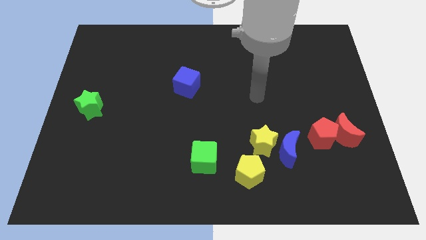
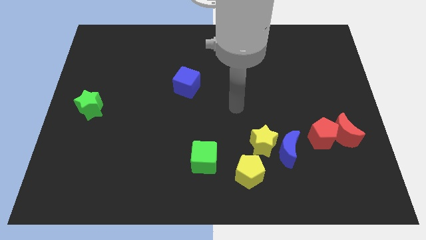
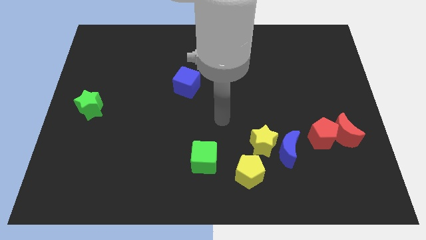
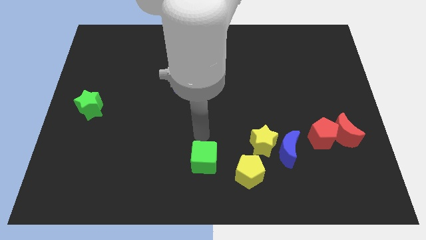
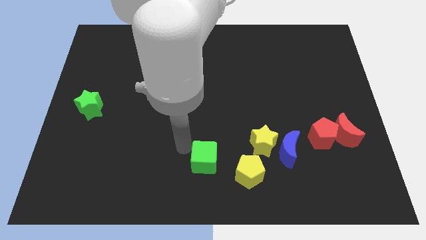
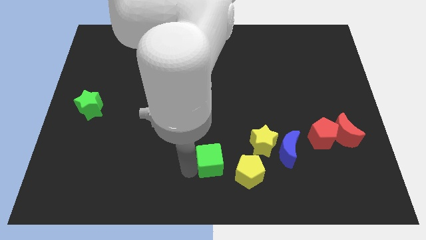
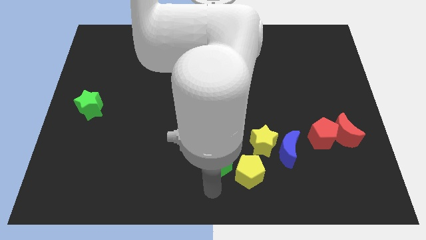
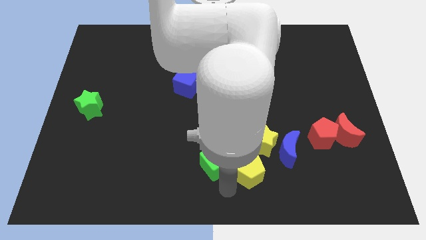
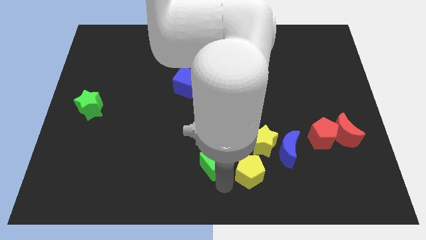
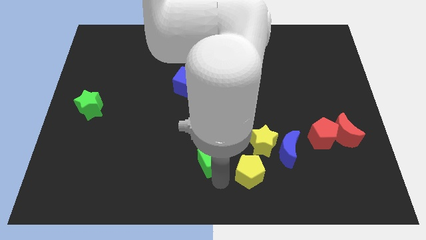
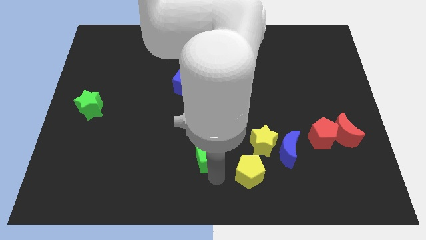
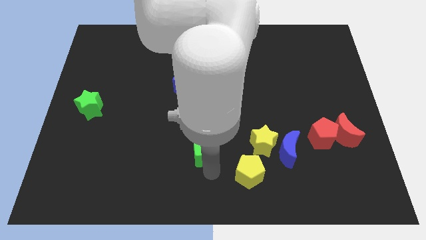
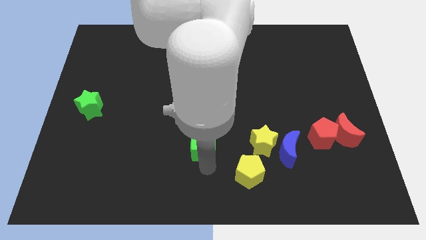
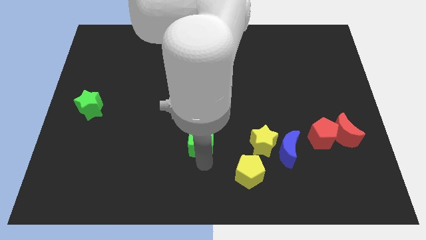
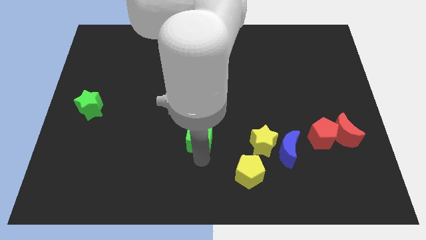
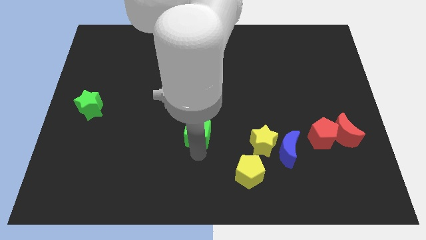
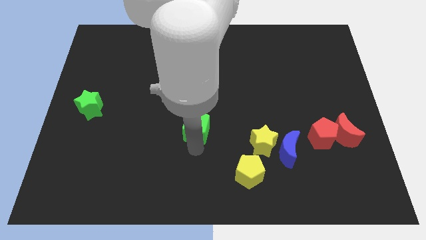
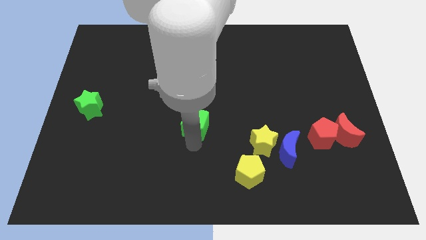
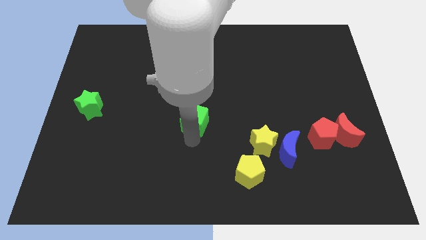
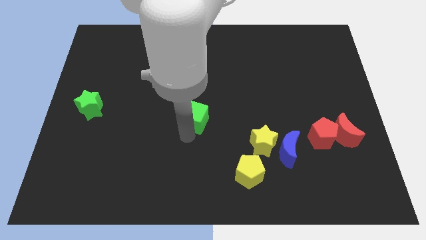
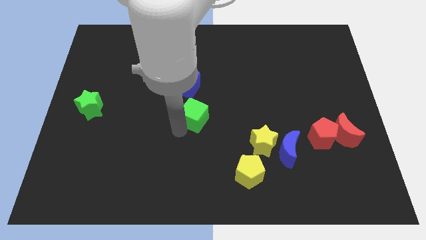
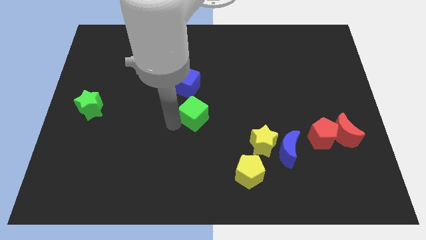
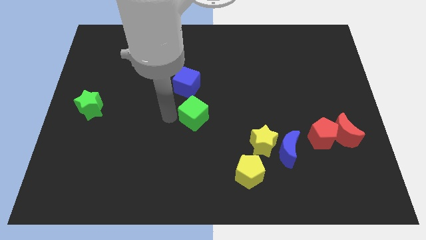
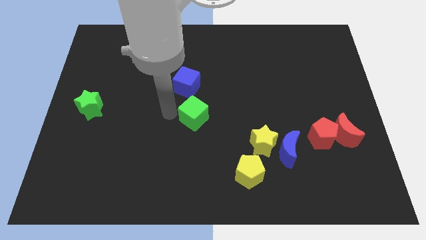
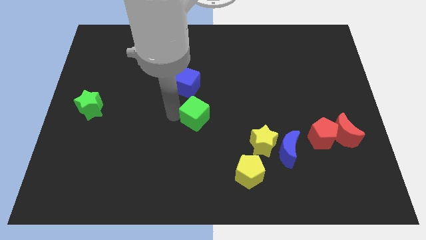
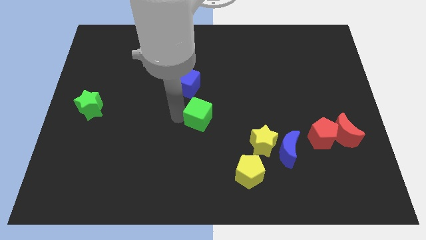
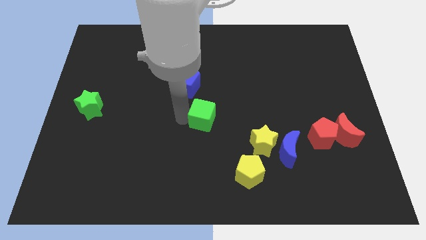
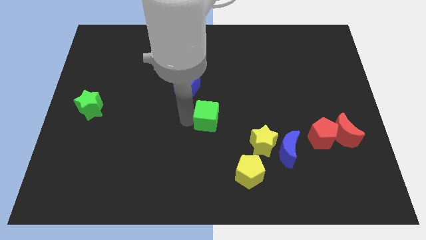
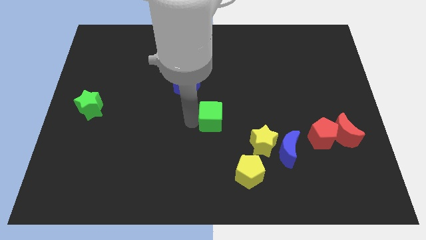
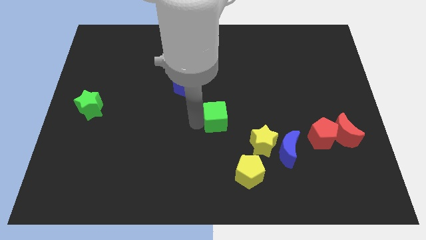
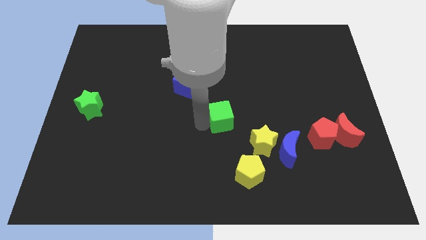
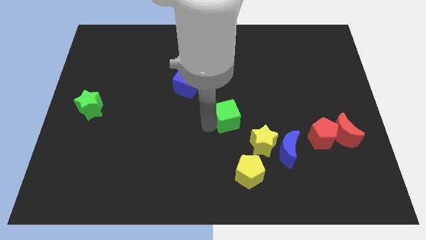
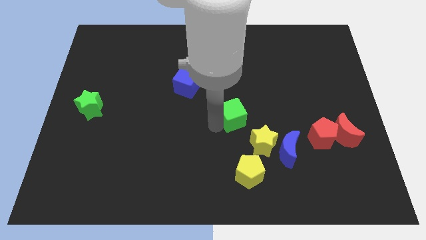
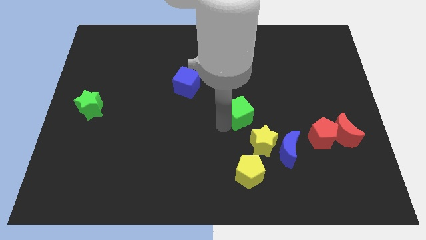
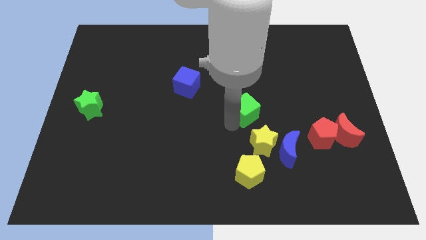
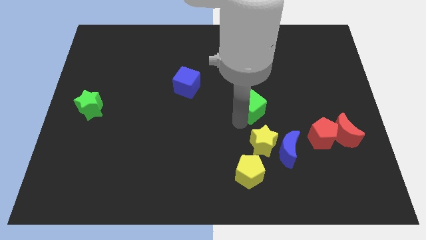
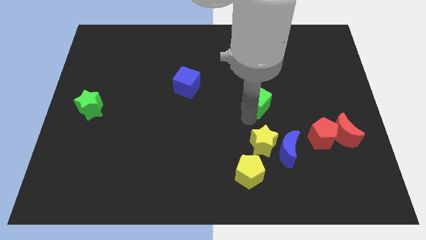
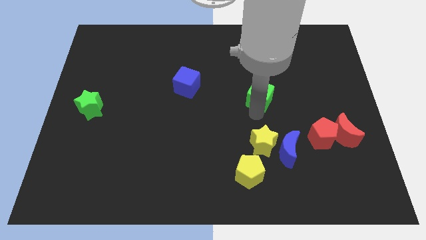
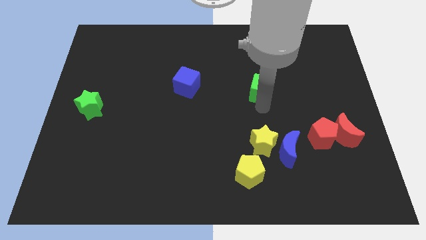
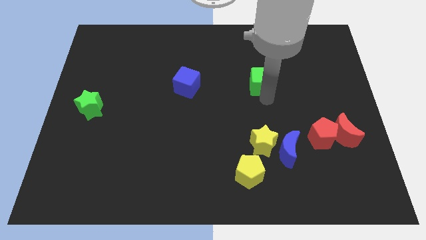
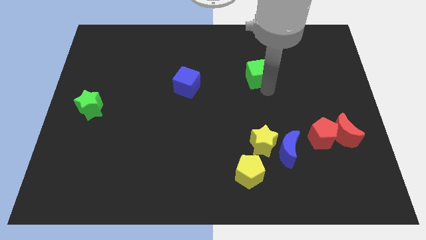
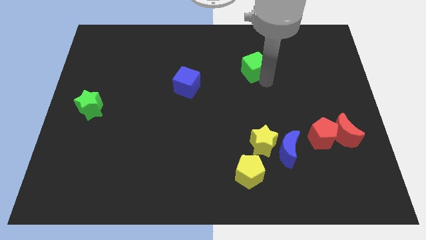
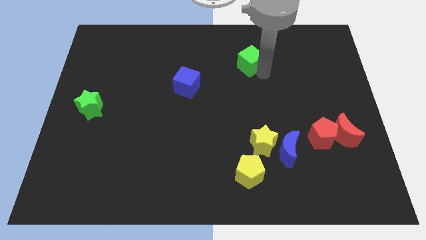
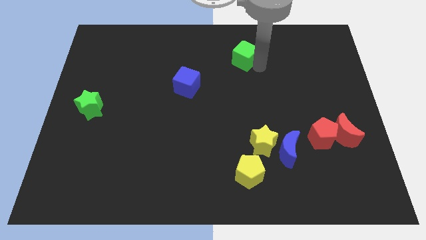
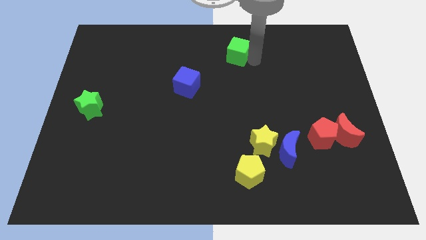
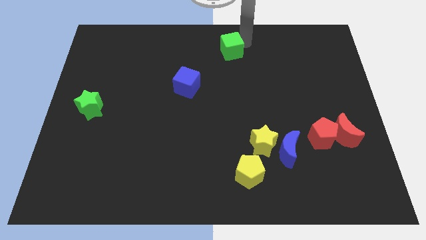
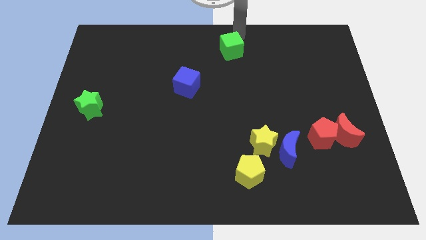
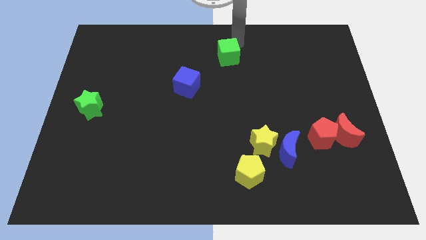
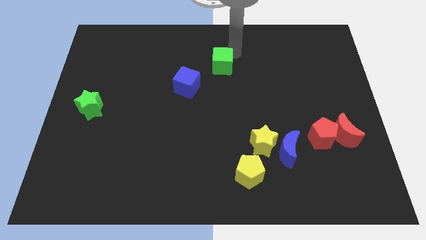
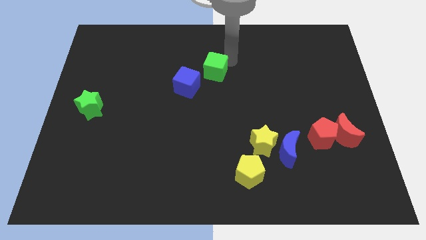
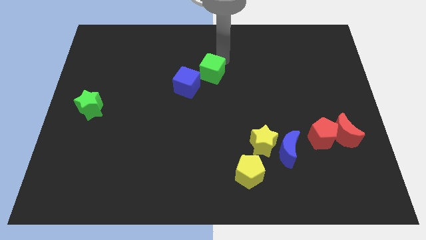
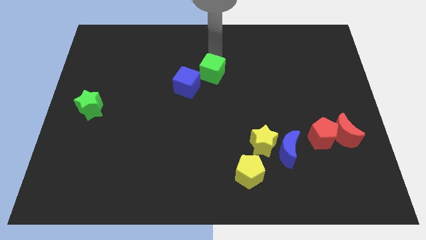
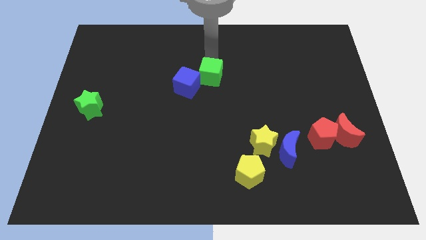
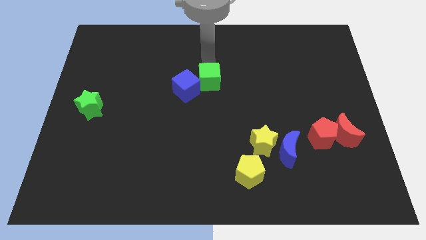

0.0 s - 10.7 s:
put the green cube to the blue cube

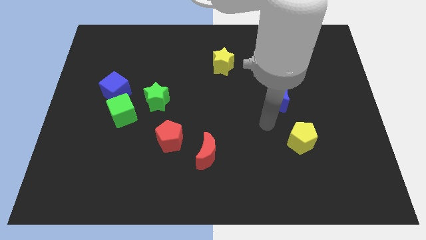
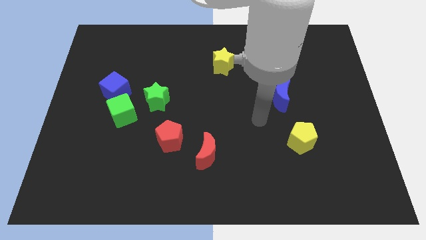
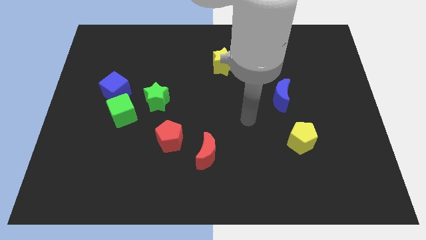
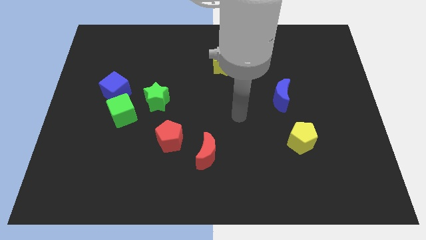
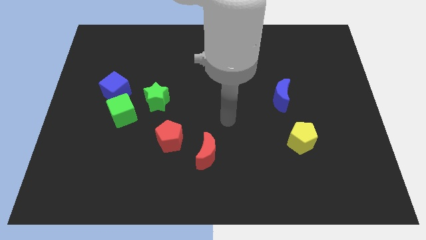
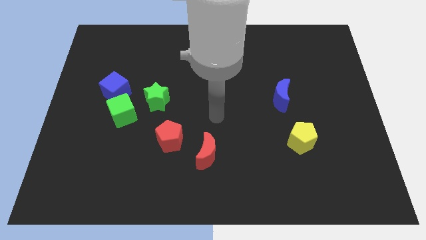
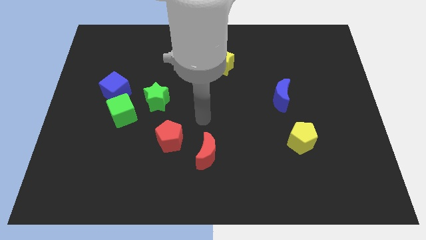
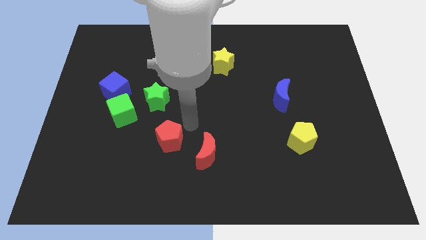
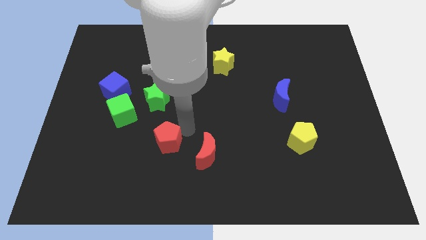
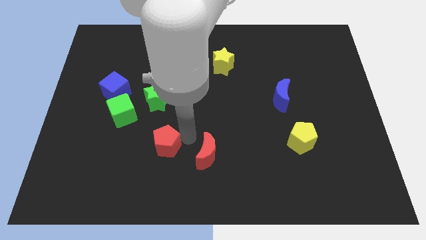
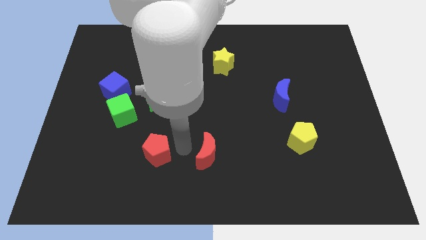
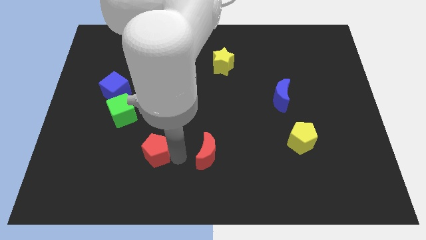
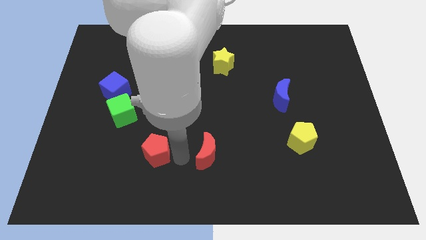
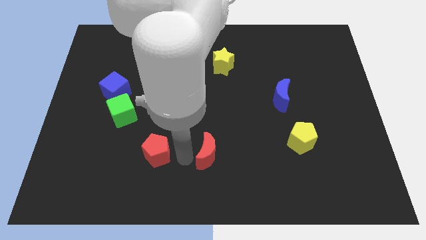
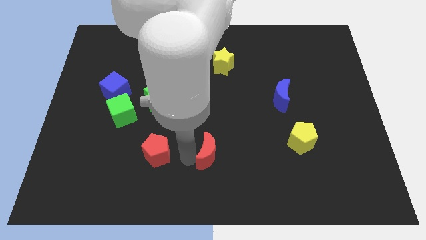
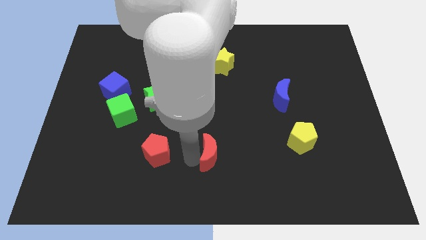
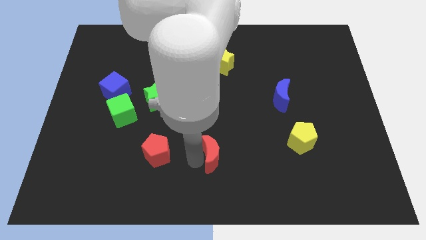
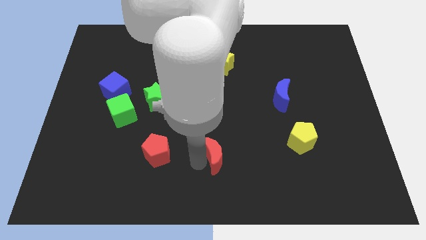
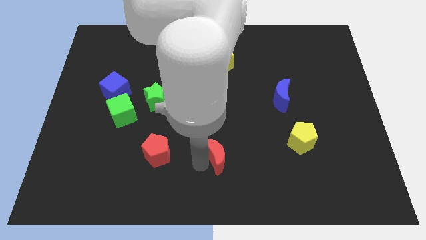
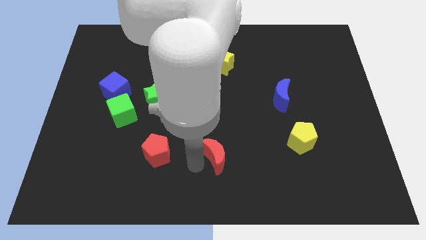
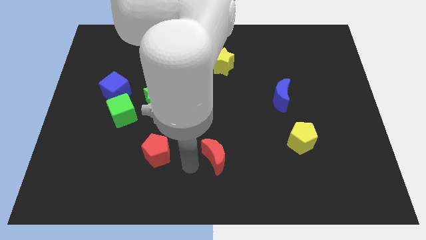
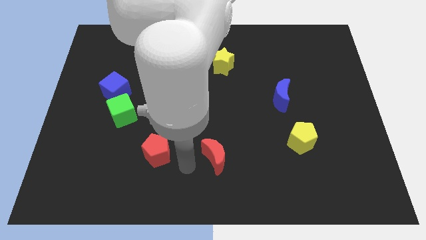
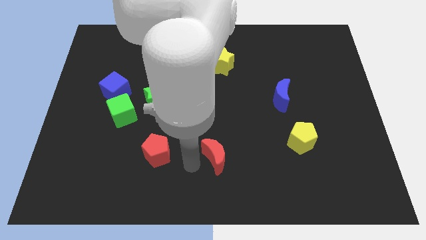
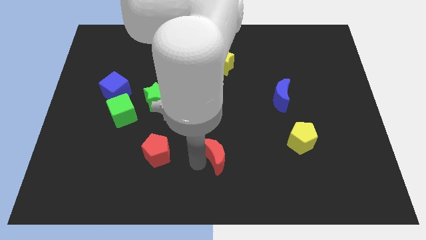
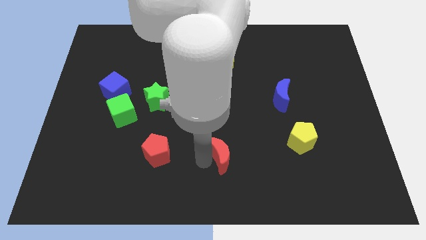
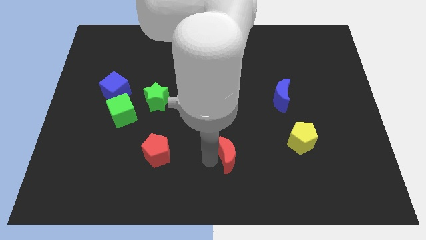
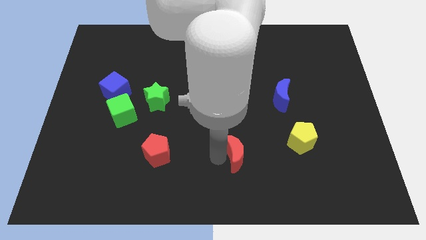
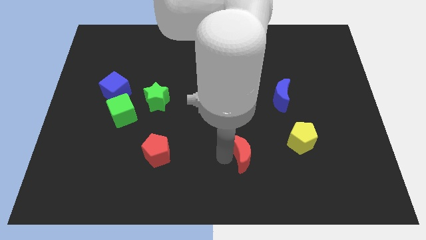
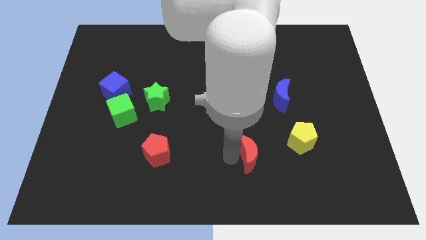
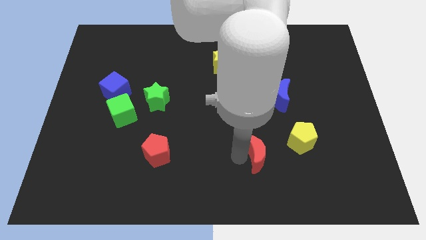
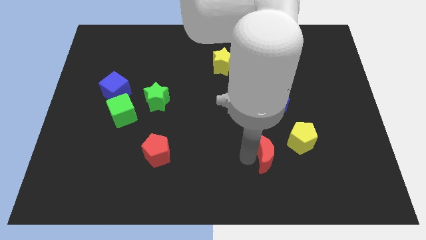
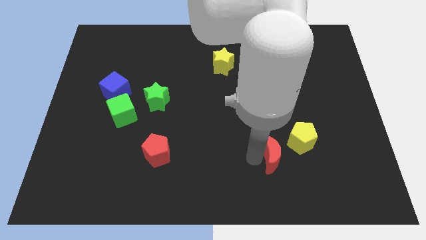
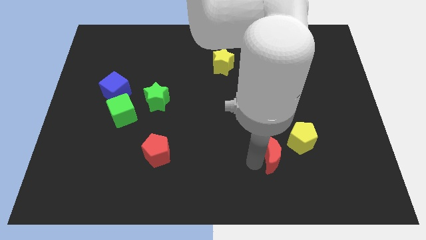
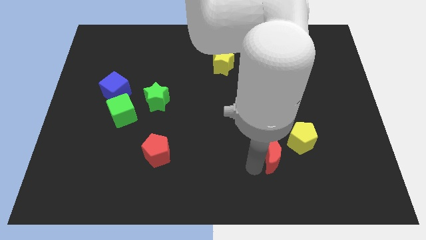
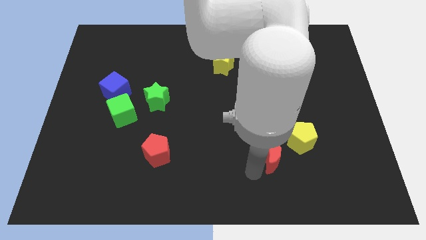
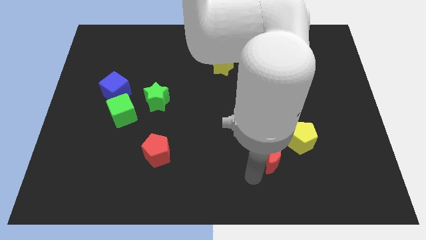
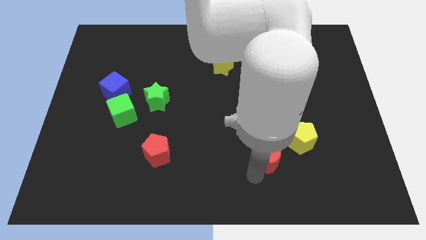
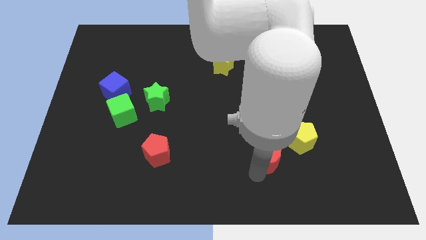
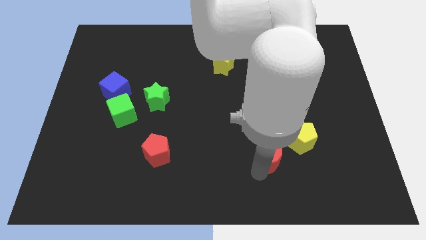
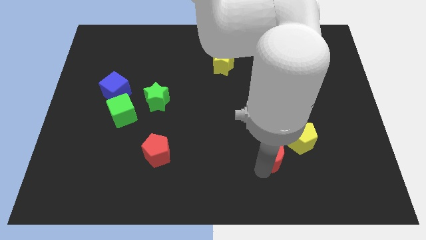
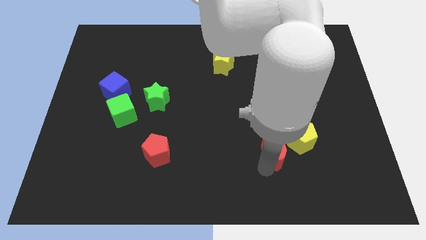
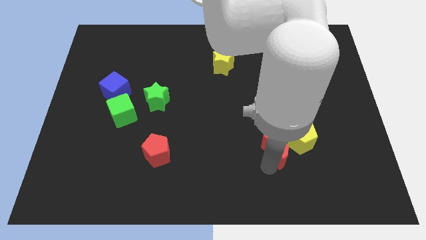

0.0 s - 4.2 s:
push the red moon towards the yellow pentagon
